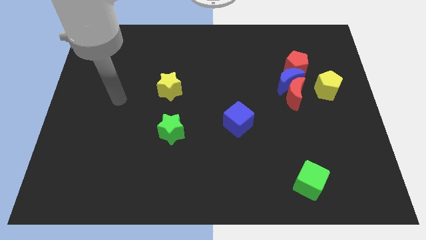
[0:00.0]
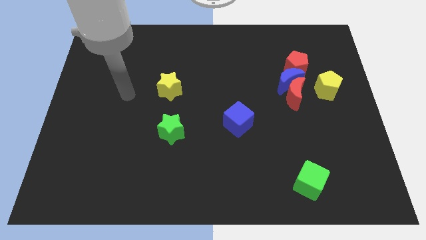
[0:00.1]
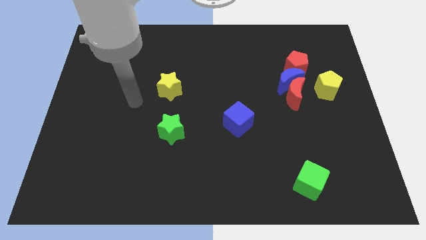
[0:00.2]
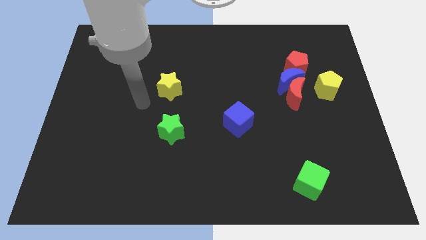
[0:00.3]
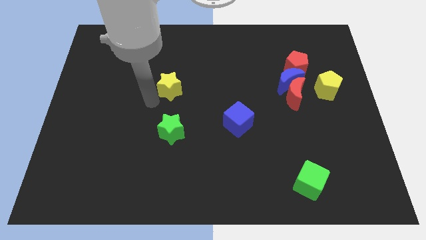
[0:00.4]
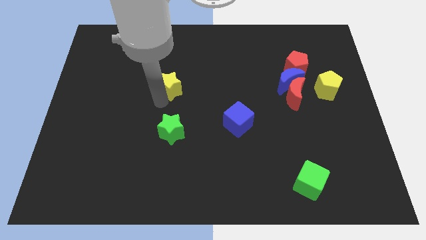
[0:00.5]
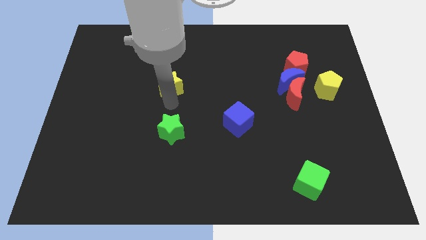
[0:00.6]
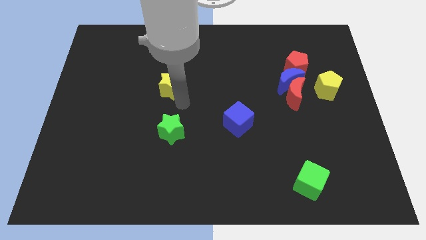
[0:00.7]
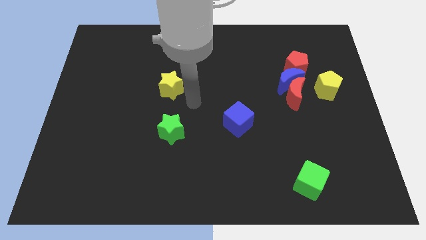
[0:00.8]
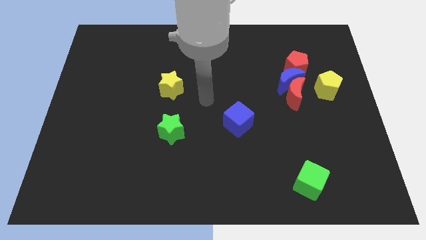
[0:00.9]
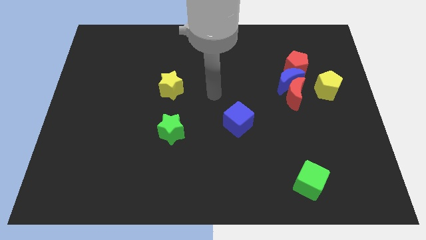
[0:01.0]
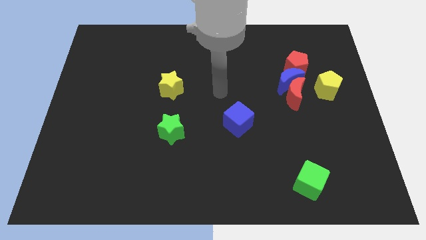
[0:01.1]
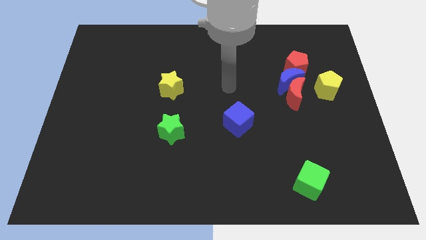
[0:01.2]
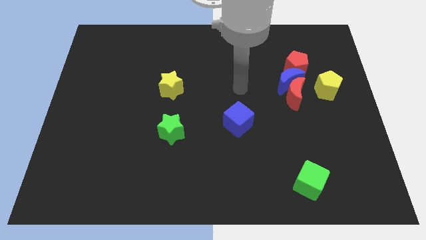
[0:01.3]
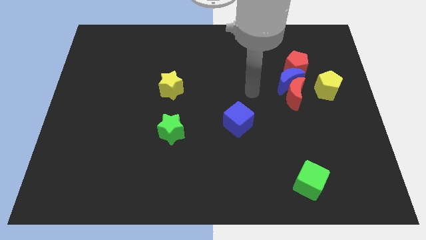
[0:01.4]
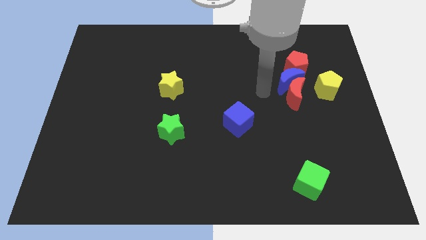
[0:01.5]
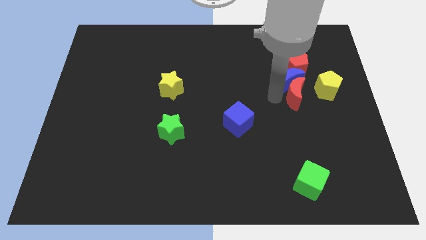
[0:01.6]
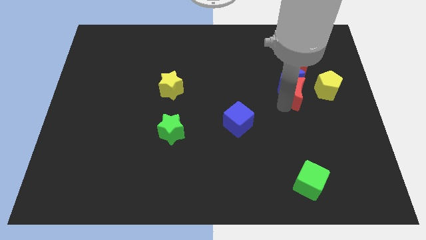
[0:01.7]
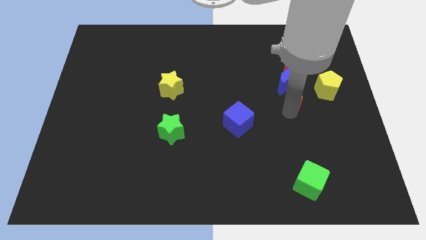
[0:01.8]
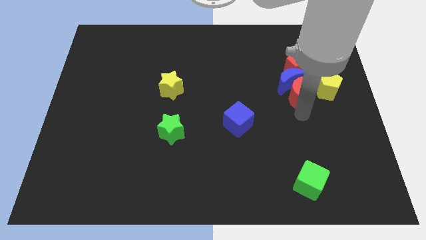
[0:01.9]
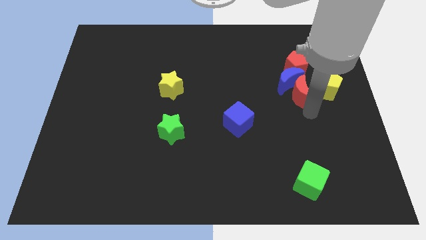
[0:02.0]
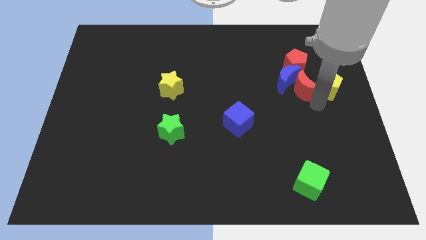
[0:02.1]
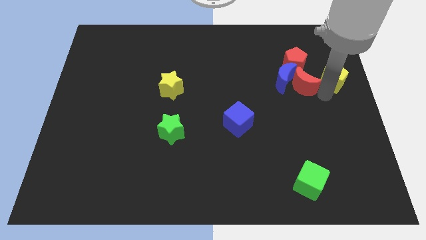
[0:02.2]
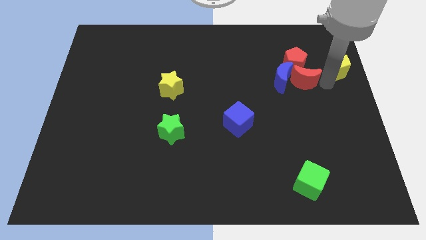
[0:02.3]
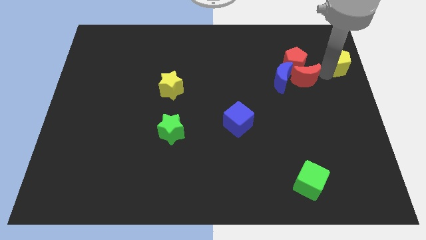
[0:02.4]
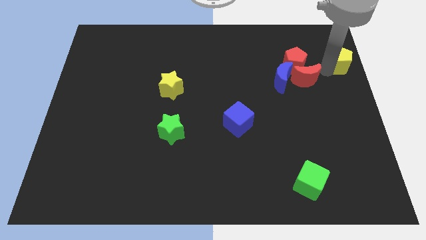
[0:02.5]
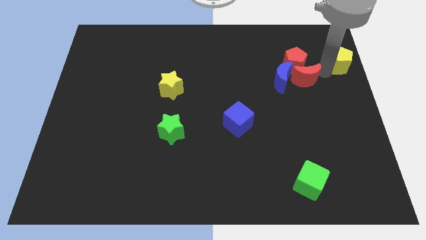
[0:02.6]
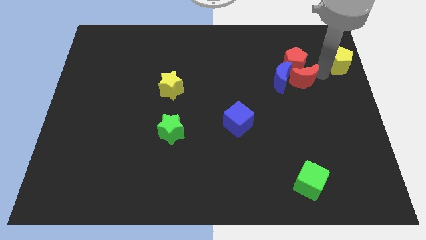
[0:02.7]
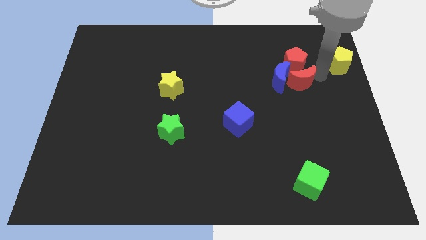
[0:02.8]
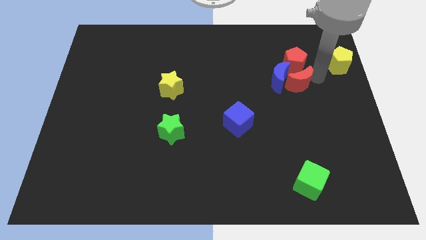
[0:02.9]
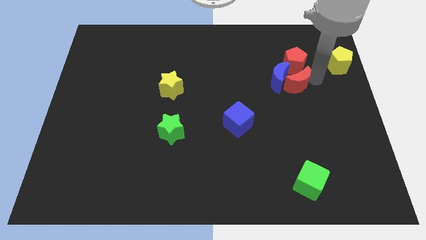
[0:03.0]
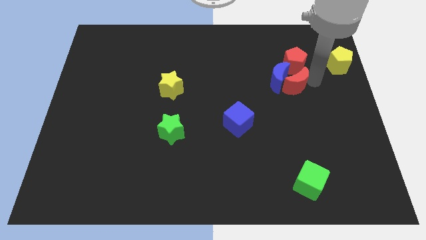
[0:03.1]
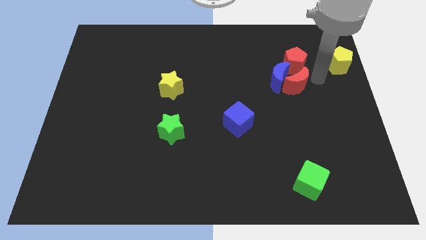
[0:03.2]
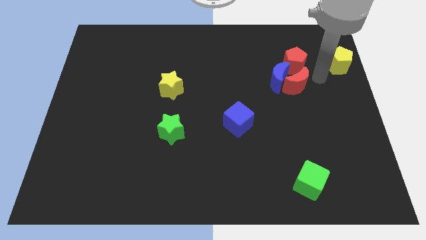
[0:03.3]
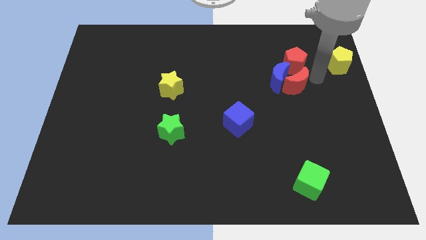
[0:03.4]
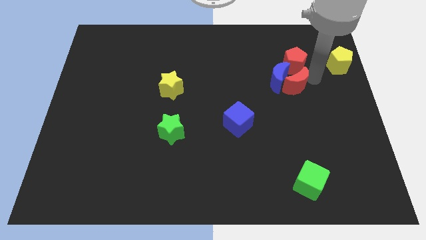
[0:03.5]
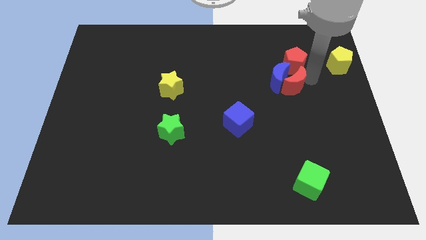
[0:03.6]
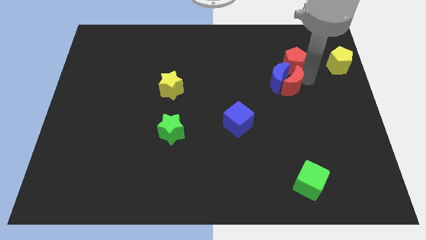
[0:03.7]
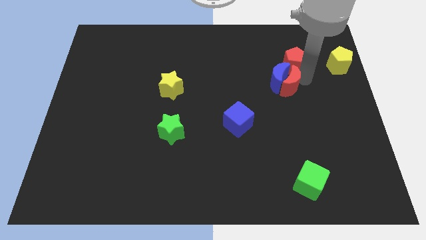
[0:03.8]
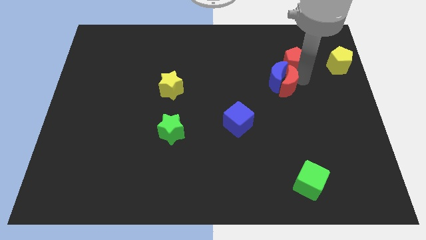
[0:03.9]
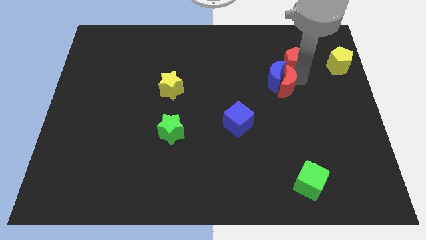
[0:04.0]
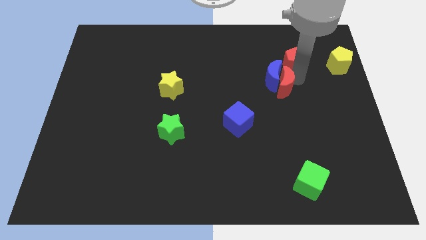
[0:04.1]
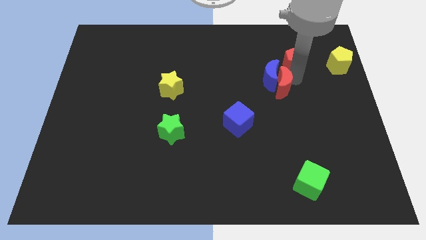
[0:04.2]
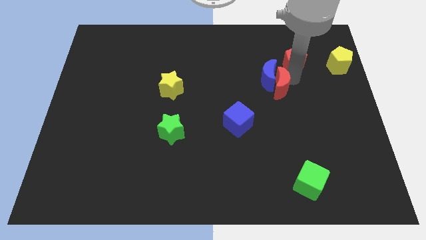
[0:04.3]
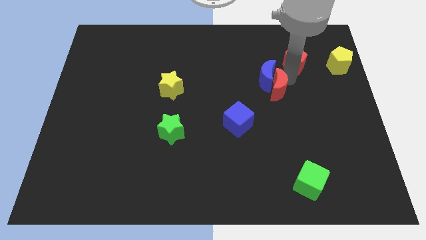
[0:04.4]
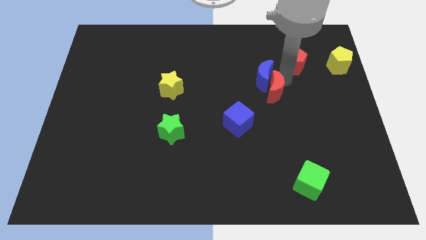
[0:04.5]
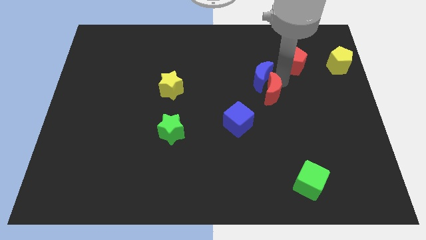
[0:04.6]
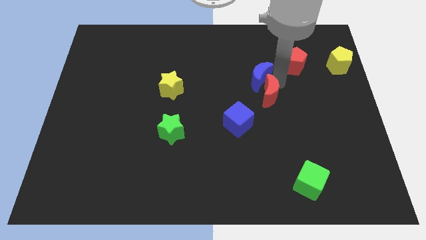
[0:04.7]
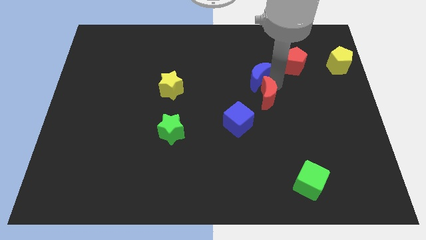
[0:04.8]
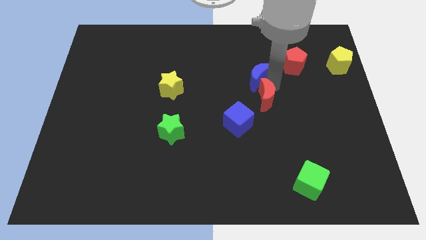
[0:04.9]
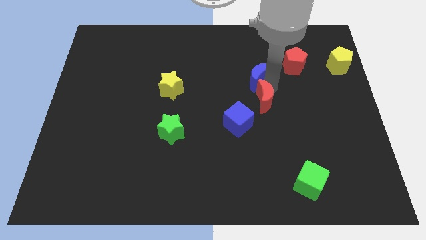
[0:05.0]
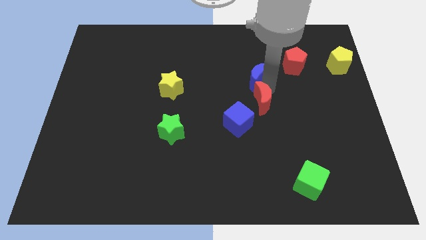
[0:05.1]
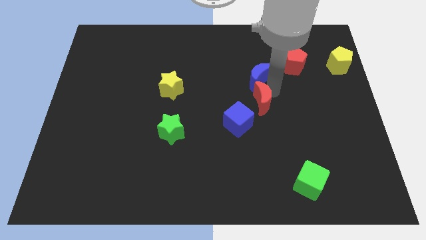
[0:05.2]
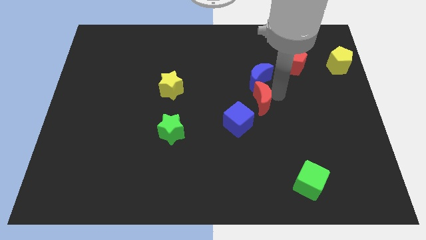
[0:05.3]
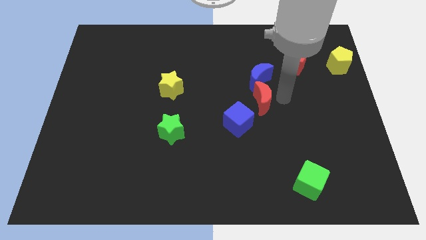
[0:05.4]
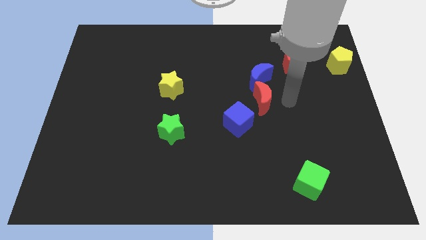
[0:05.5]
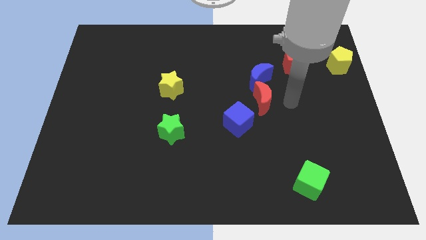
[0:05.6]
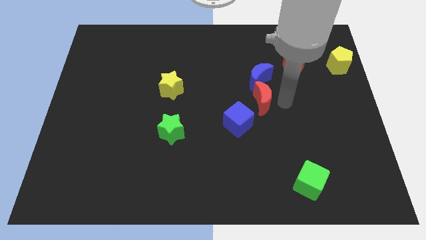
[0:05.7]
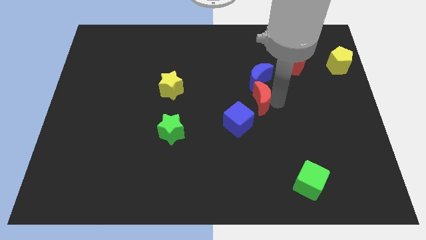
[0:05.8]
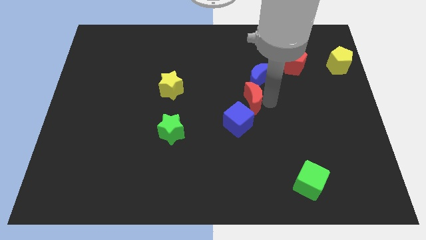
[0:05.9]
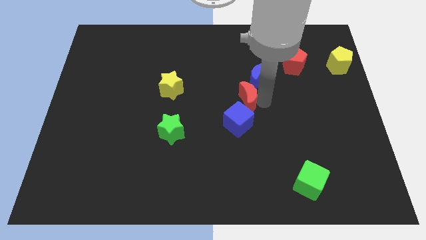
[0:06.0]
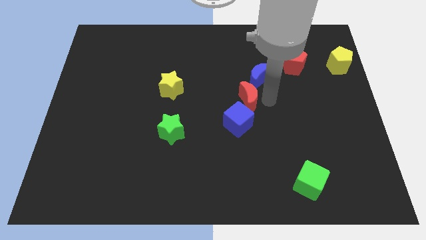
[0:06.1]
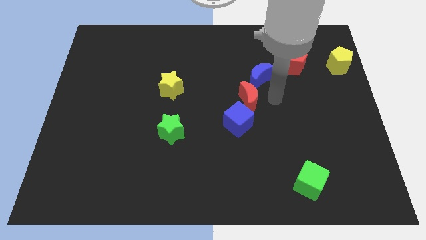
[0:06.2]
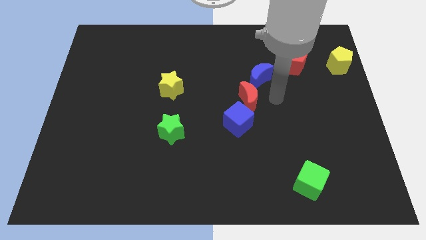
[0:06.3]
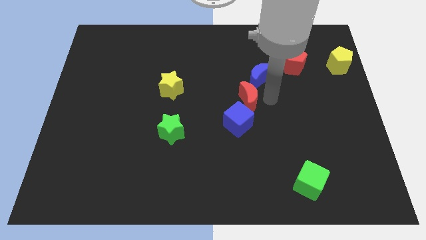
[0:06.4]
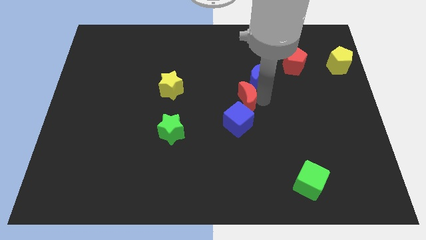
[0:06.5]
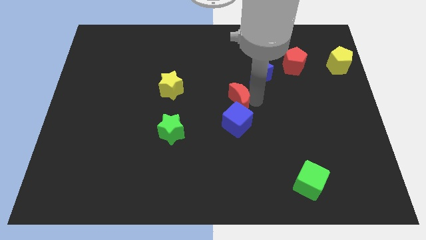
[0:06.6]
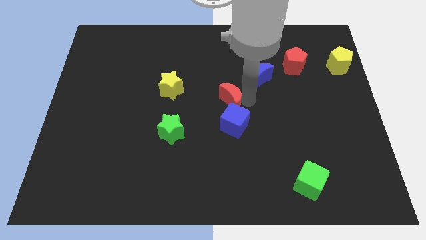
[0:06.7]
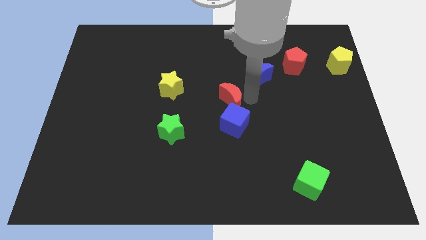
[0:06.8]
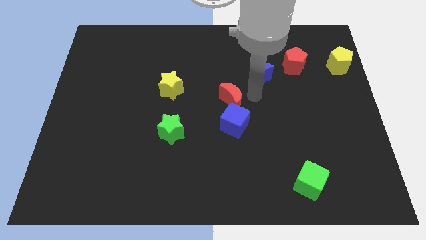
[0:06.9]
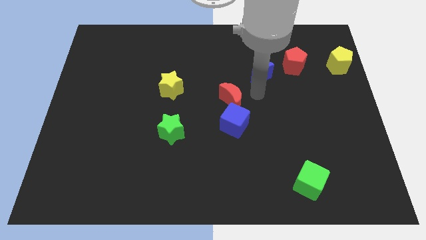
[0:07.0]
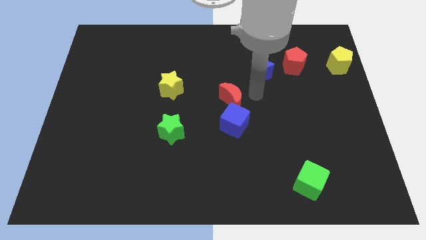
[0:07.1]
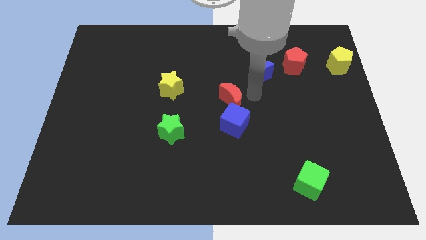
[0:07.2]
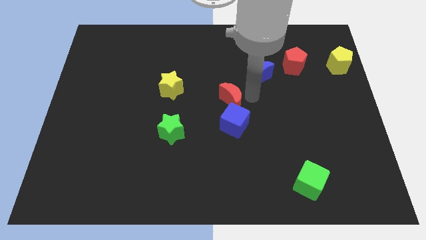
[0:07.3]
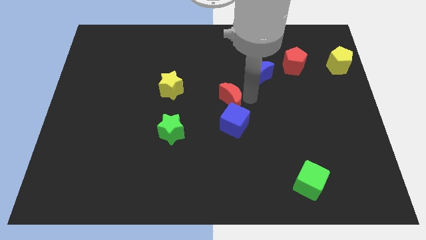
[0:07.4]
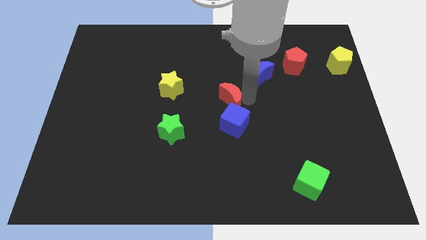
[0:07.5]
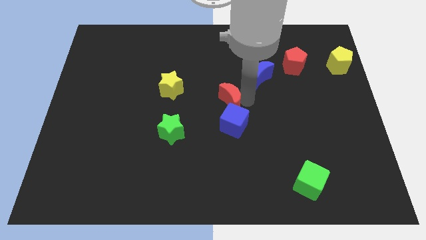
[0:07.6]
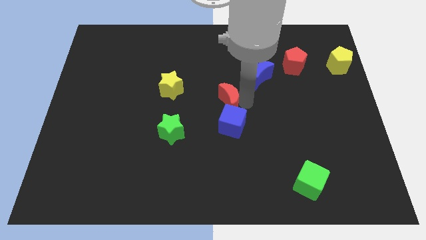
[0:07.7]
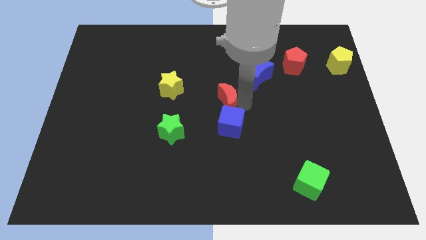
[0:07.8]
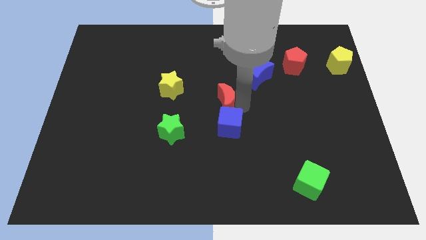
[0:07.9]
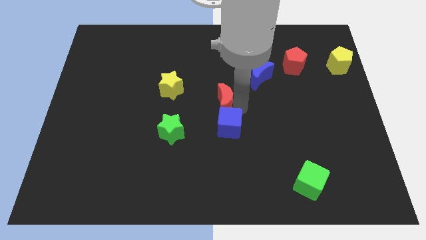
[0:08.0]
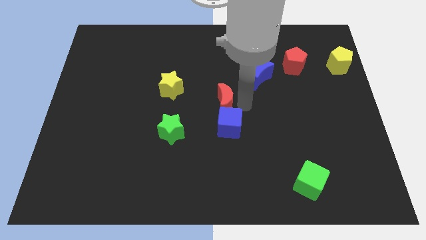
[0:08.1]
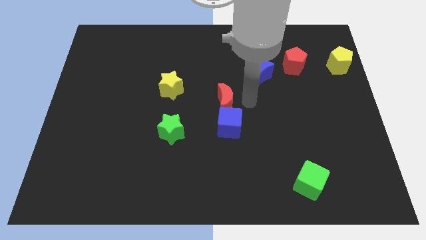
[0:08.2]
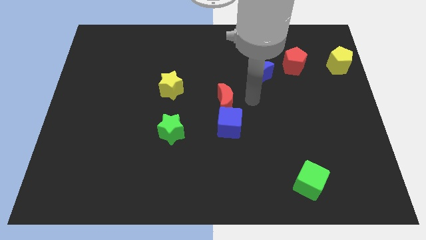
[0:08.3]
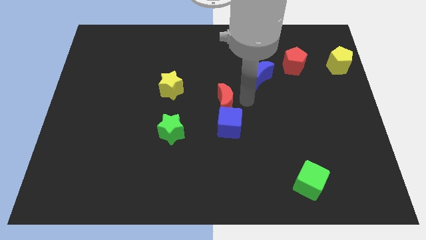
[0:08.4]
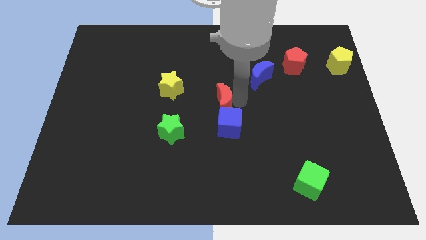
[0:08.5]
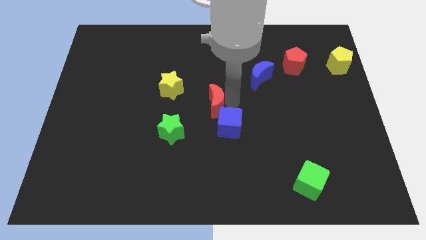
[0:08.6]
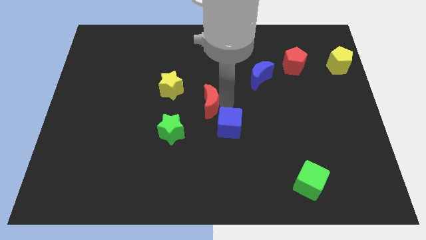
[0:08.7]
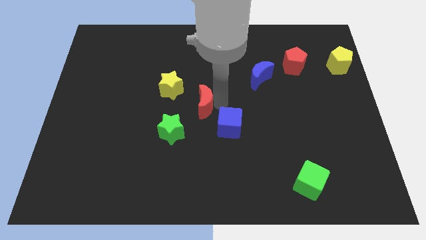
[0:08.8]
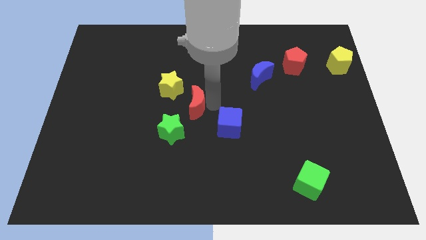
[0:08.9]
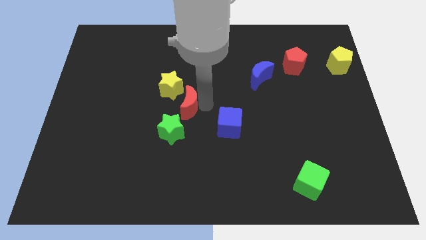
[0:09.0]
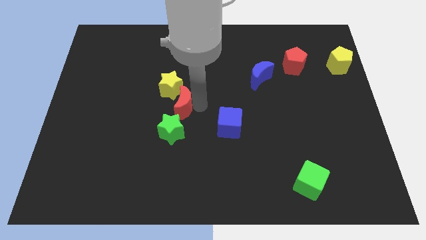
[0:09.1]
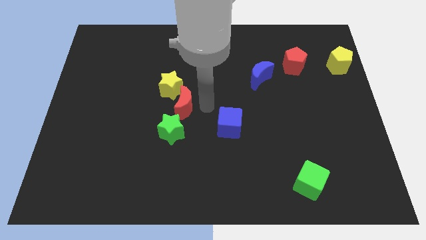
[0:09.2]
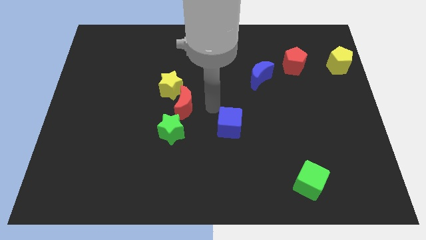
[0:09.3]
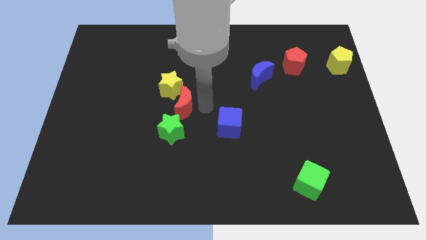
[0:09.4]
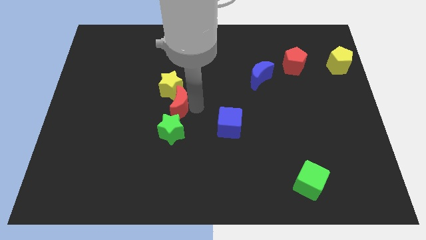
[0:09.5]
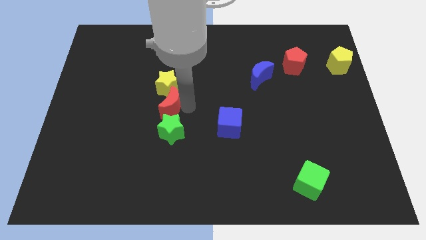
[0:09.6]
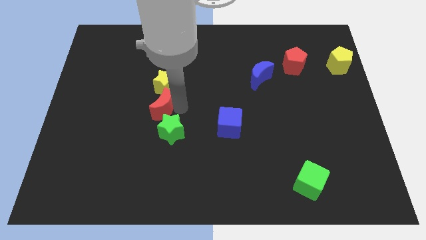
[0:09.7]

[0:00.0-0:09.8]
slide the red moon to the bottom left side of the yellow star
